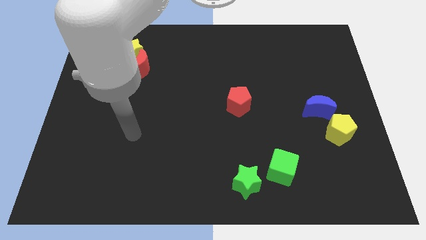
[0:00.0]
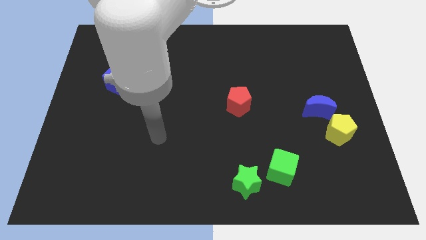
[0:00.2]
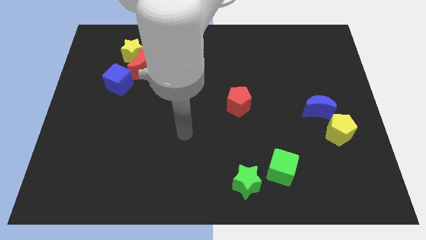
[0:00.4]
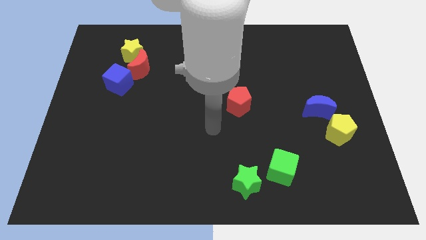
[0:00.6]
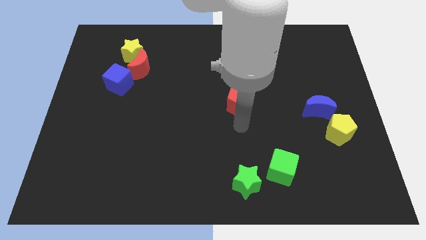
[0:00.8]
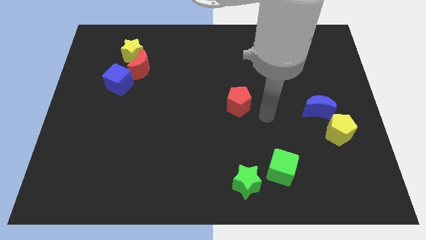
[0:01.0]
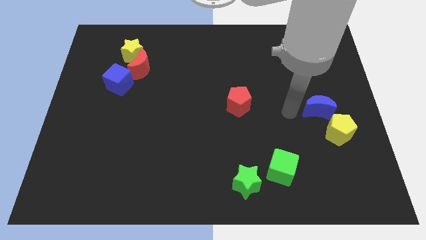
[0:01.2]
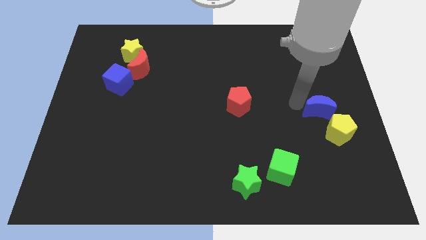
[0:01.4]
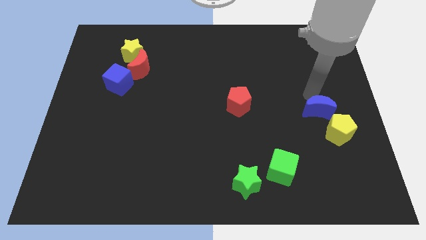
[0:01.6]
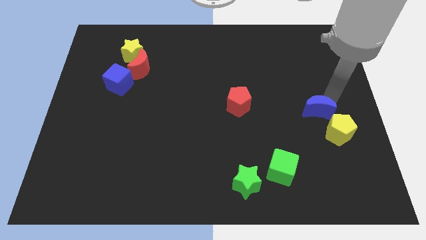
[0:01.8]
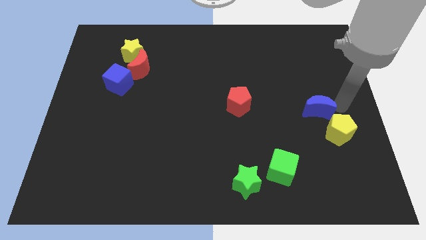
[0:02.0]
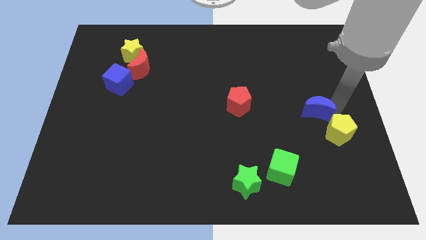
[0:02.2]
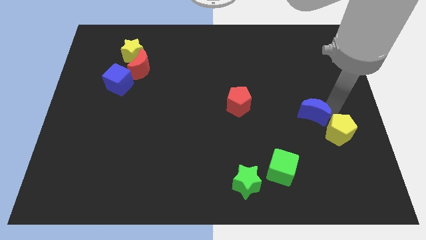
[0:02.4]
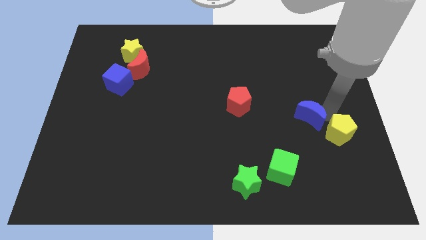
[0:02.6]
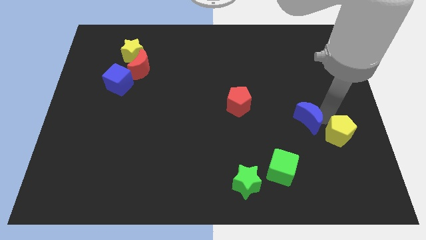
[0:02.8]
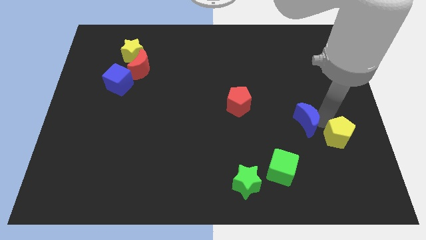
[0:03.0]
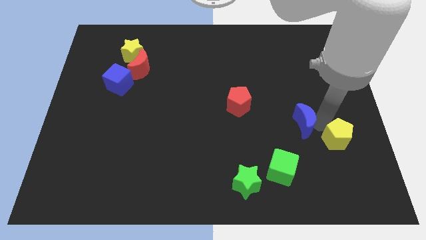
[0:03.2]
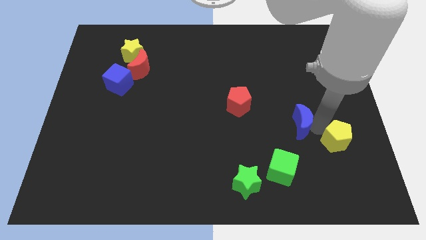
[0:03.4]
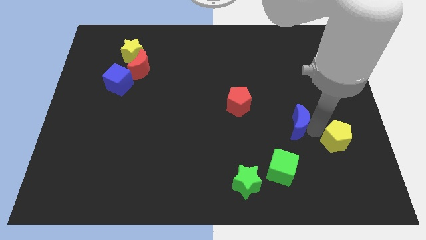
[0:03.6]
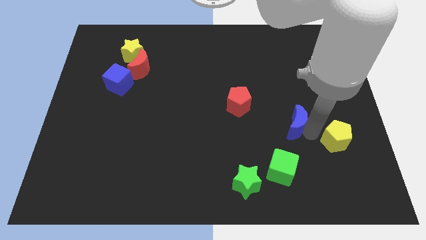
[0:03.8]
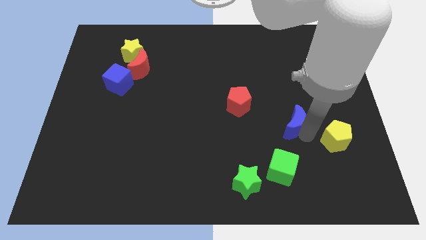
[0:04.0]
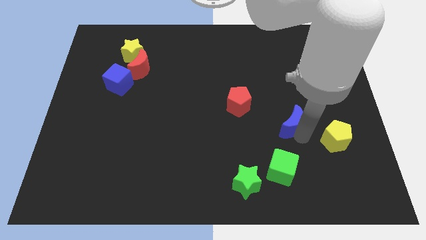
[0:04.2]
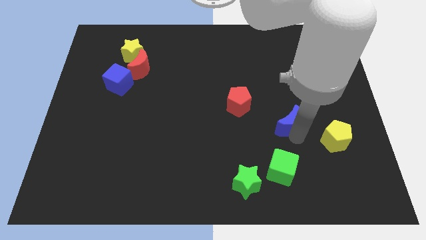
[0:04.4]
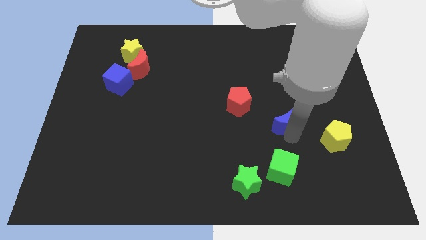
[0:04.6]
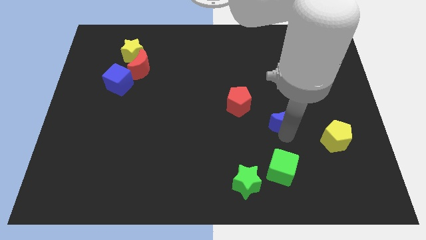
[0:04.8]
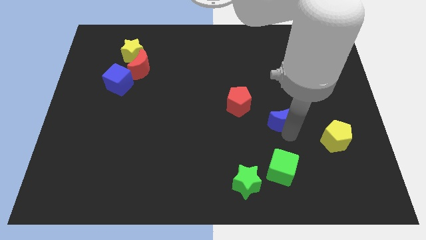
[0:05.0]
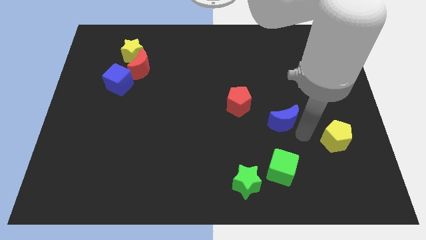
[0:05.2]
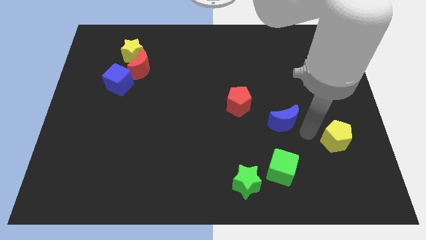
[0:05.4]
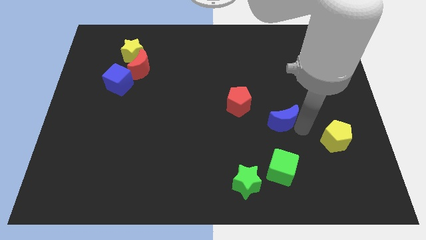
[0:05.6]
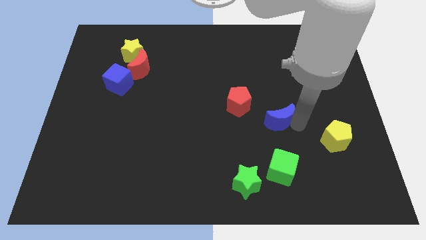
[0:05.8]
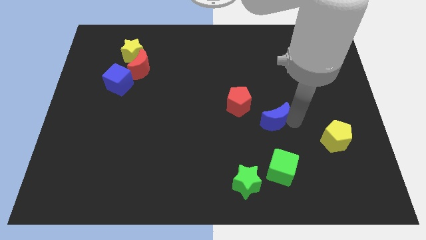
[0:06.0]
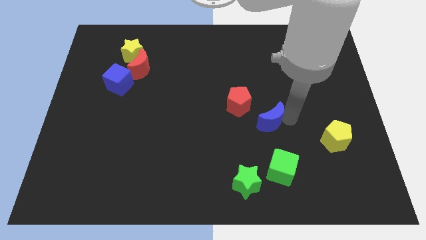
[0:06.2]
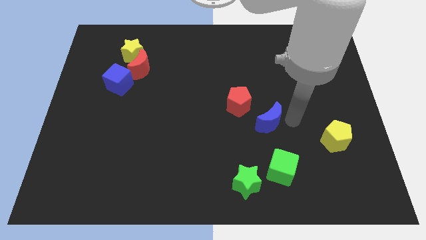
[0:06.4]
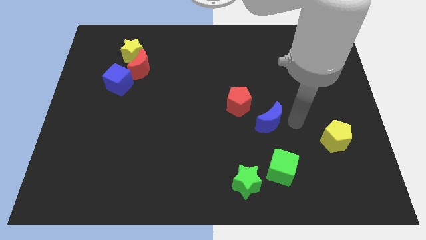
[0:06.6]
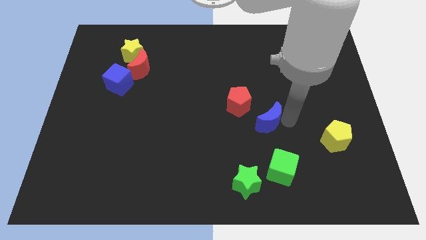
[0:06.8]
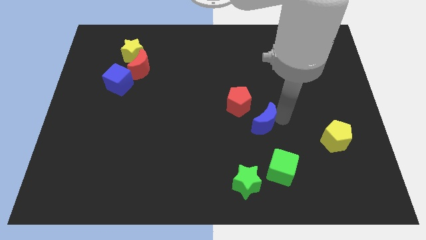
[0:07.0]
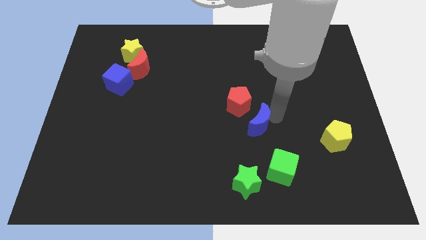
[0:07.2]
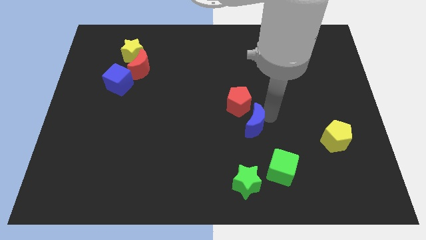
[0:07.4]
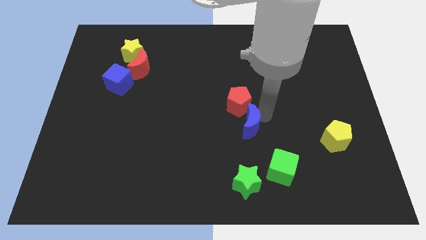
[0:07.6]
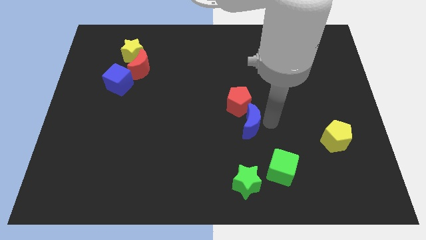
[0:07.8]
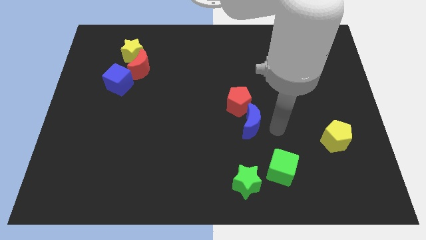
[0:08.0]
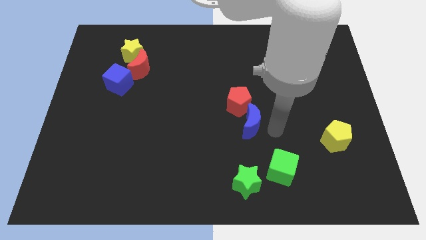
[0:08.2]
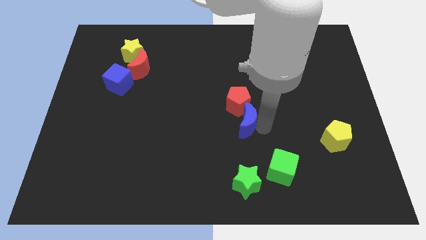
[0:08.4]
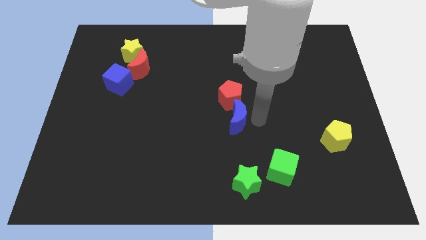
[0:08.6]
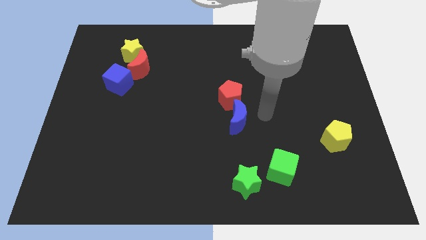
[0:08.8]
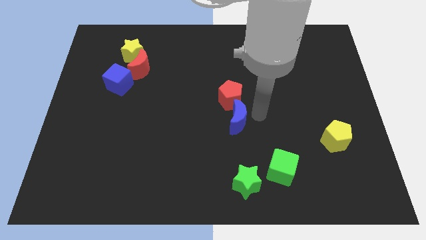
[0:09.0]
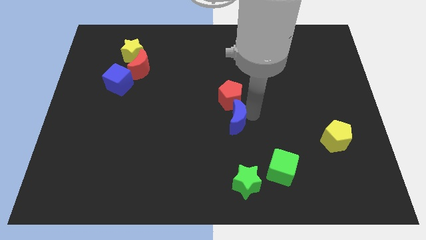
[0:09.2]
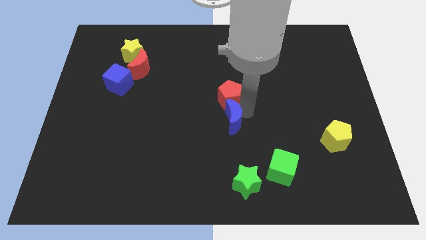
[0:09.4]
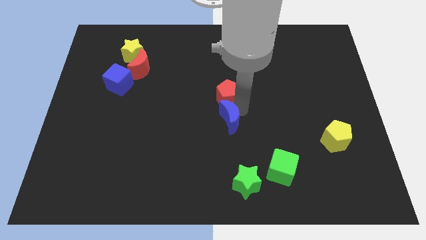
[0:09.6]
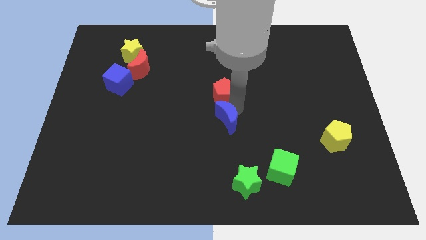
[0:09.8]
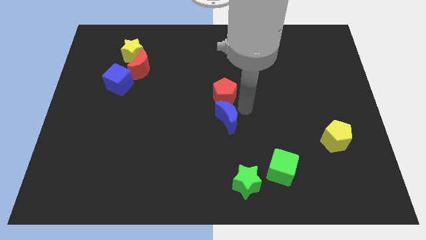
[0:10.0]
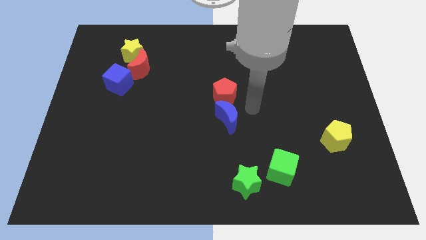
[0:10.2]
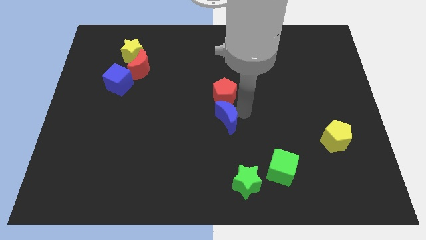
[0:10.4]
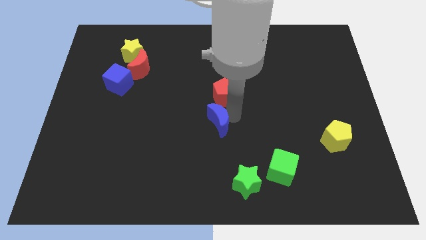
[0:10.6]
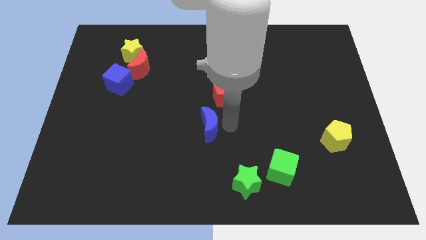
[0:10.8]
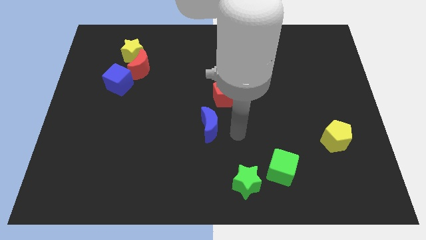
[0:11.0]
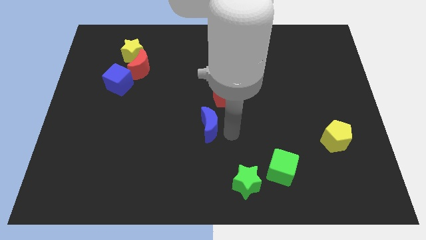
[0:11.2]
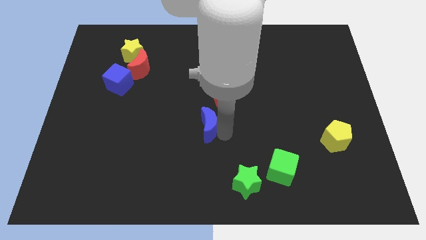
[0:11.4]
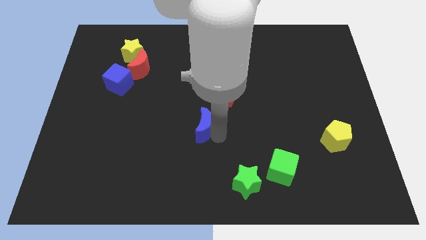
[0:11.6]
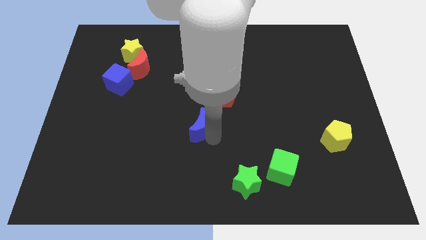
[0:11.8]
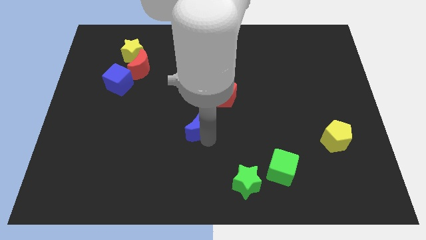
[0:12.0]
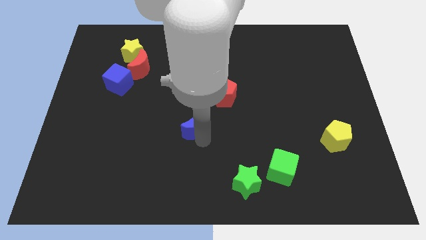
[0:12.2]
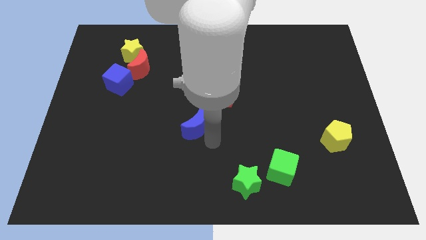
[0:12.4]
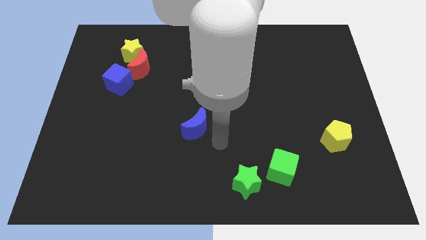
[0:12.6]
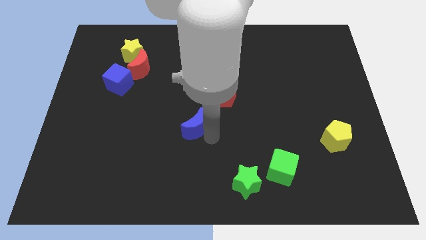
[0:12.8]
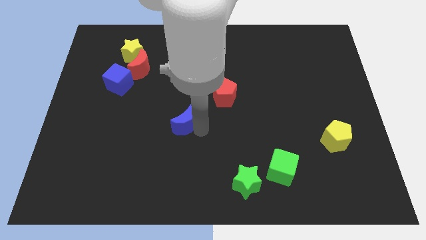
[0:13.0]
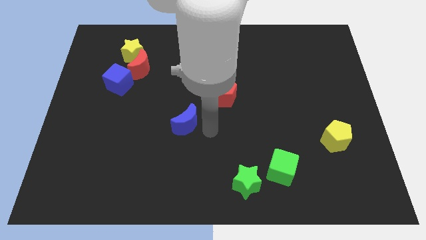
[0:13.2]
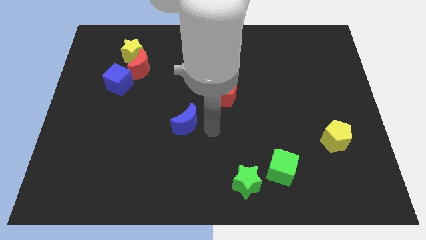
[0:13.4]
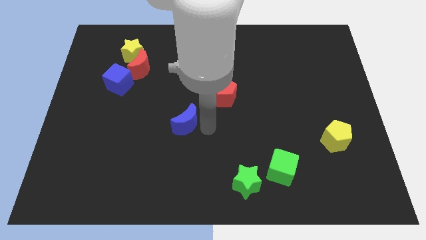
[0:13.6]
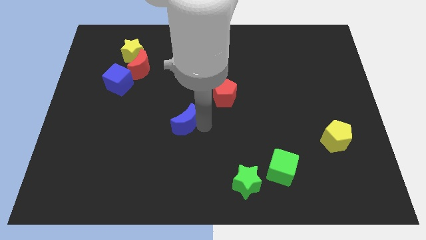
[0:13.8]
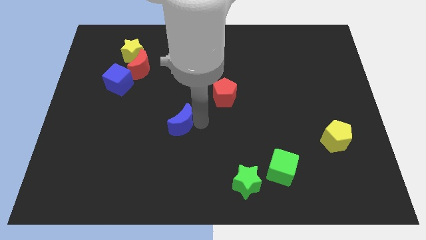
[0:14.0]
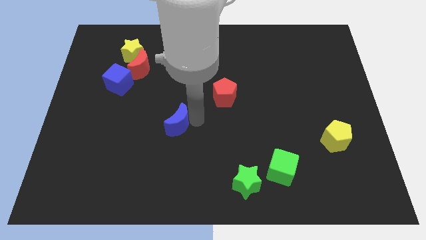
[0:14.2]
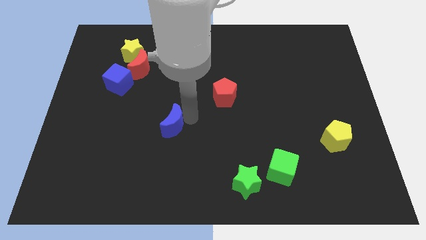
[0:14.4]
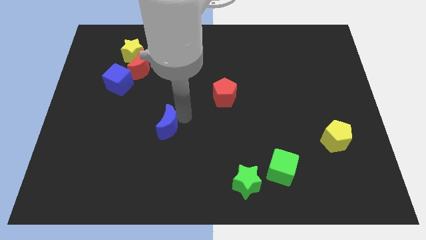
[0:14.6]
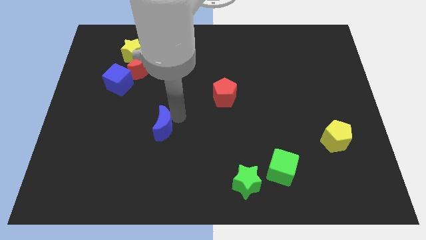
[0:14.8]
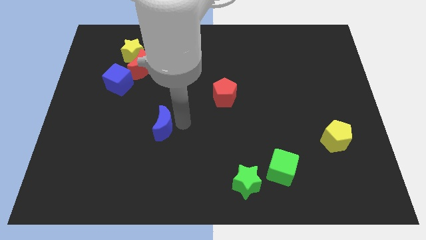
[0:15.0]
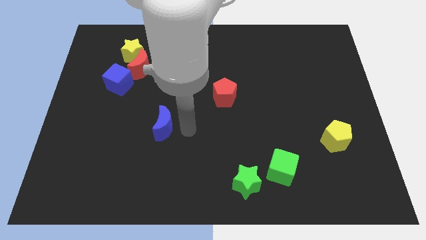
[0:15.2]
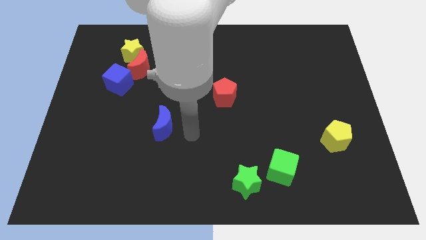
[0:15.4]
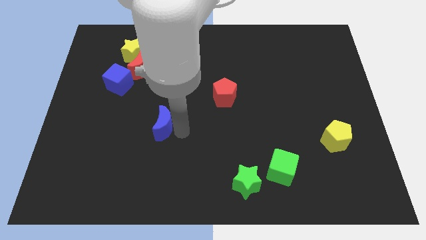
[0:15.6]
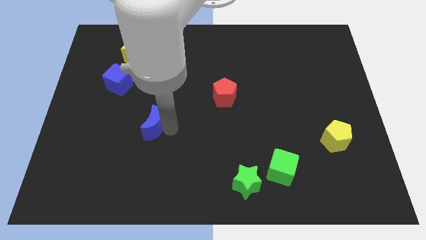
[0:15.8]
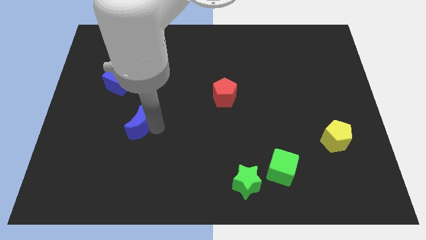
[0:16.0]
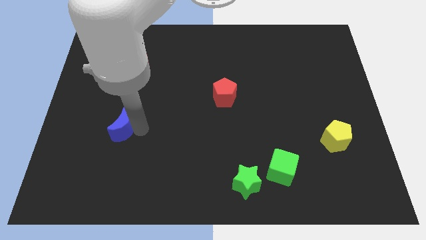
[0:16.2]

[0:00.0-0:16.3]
move the blue moon to the bottom side of the blue cube
